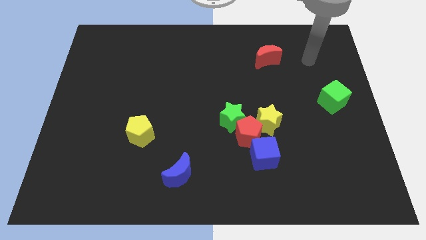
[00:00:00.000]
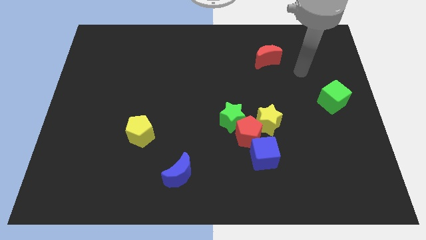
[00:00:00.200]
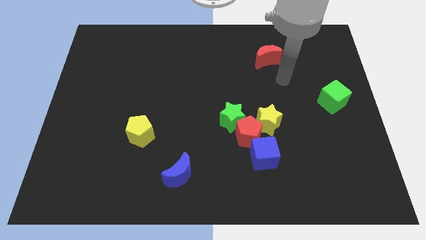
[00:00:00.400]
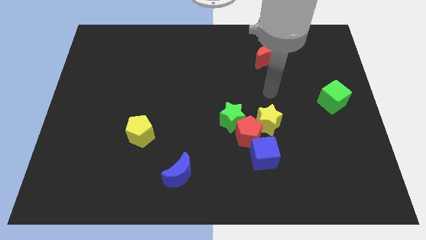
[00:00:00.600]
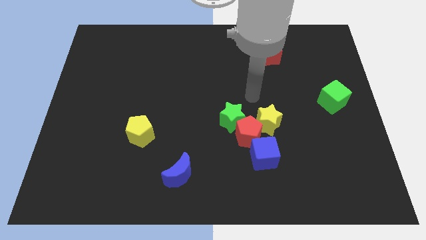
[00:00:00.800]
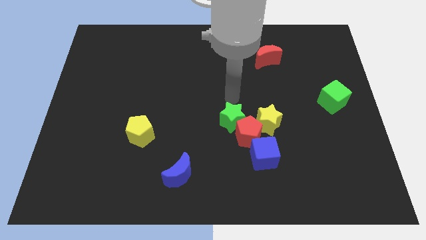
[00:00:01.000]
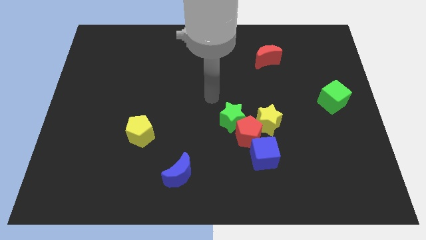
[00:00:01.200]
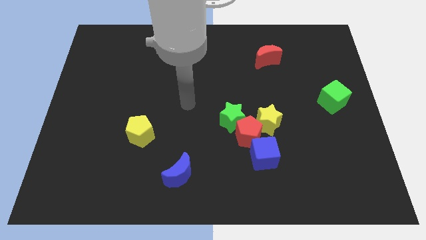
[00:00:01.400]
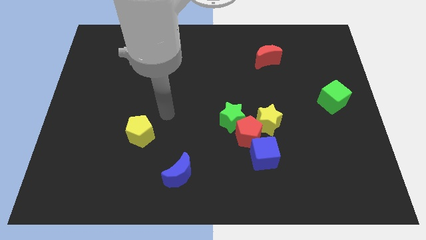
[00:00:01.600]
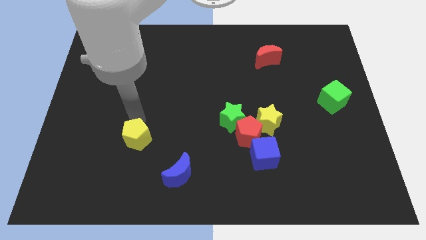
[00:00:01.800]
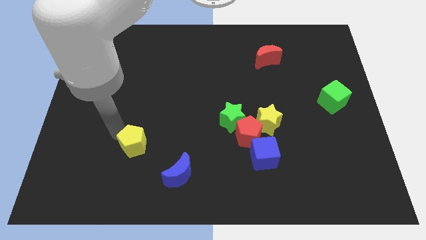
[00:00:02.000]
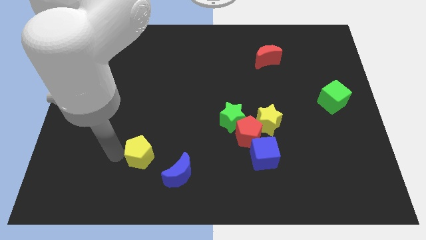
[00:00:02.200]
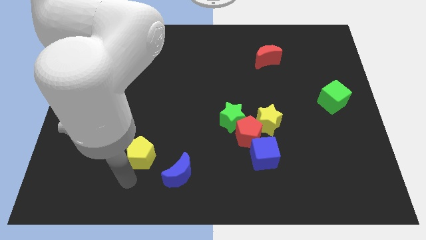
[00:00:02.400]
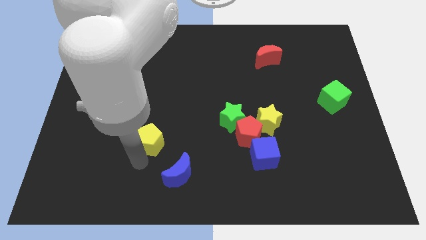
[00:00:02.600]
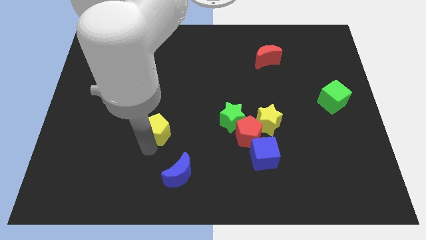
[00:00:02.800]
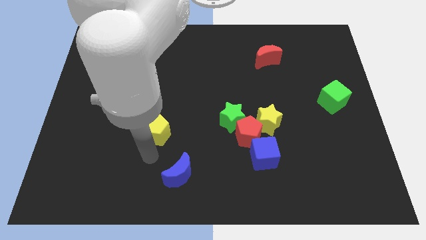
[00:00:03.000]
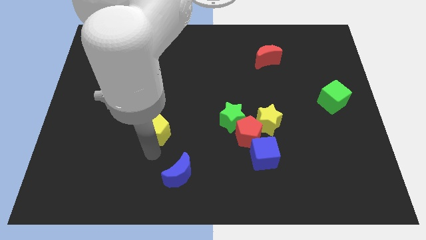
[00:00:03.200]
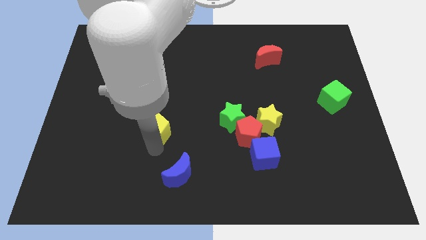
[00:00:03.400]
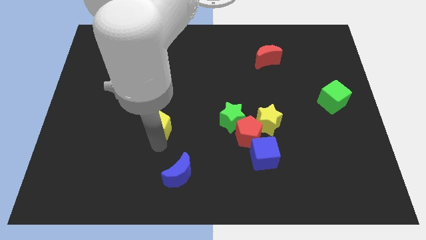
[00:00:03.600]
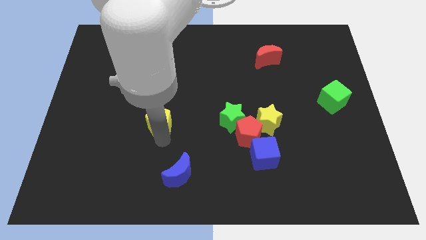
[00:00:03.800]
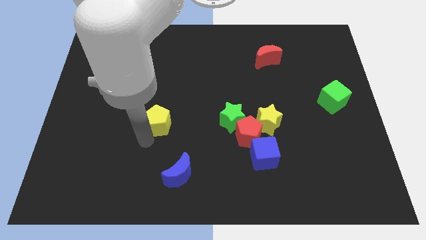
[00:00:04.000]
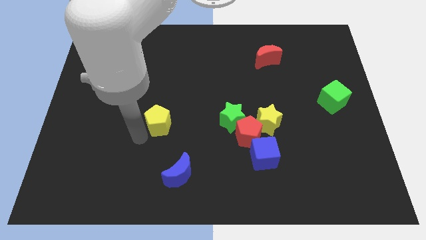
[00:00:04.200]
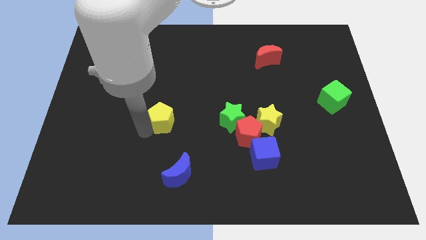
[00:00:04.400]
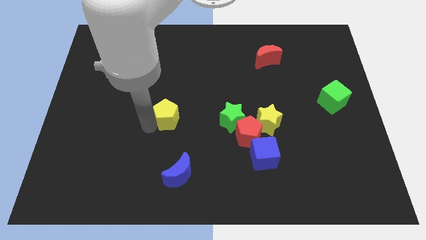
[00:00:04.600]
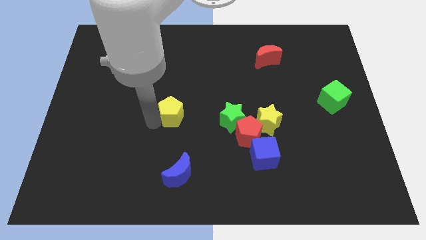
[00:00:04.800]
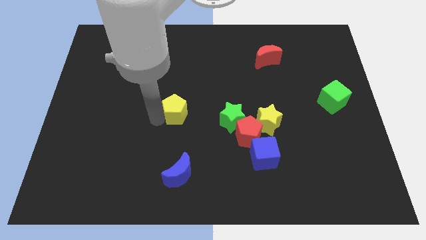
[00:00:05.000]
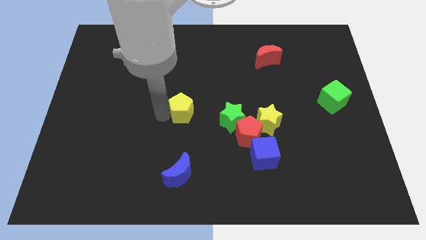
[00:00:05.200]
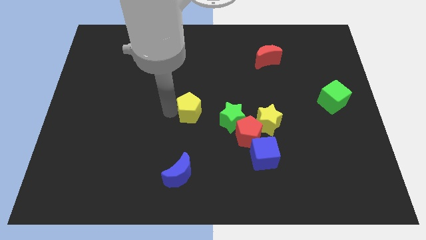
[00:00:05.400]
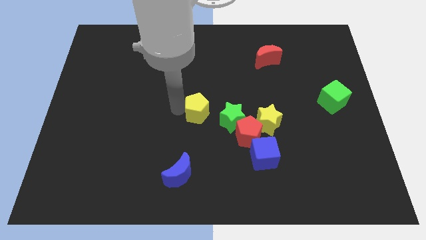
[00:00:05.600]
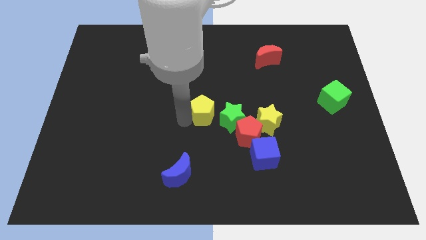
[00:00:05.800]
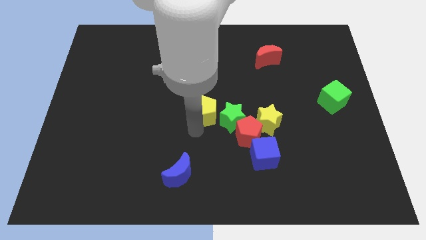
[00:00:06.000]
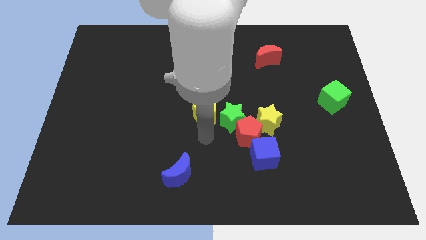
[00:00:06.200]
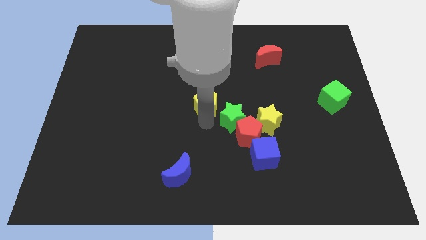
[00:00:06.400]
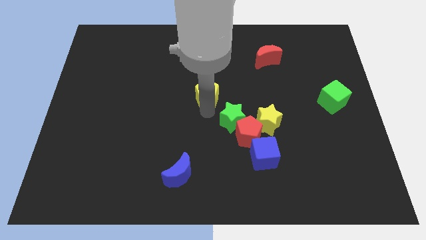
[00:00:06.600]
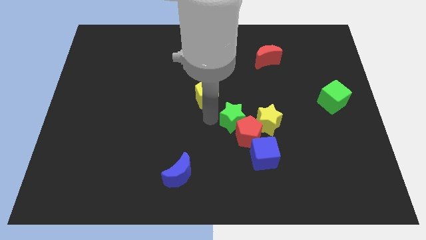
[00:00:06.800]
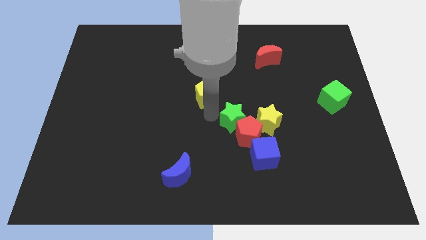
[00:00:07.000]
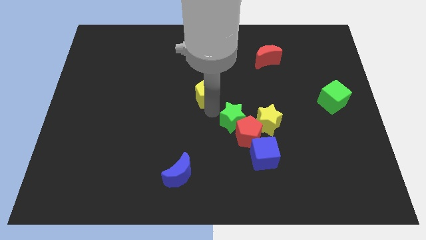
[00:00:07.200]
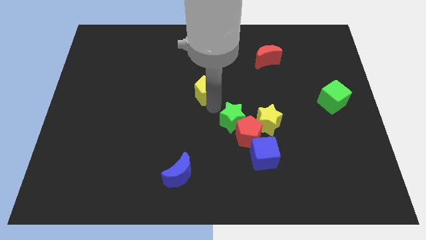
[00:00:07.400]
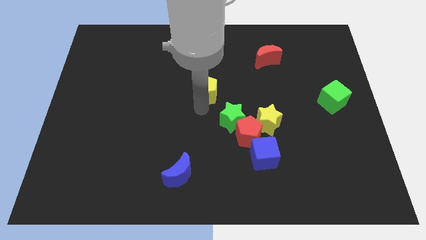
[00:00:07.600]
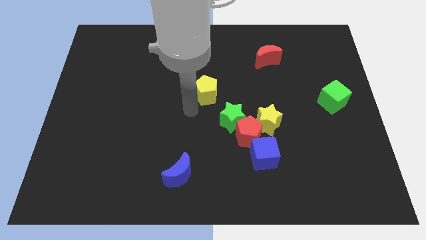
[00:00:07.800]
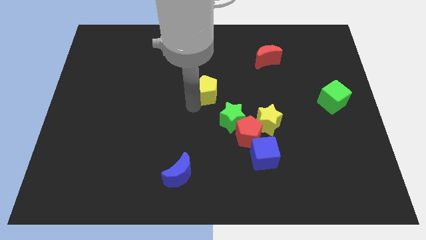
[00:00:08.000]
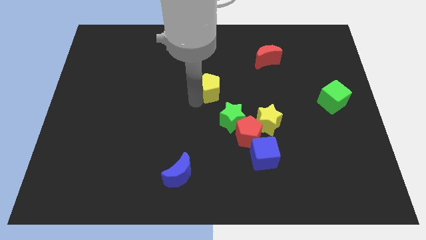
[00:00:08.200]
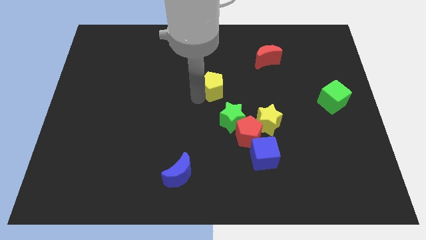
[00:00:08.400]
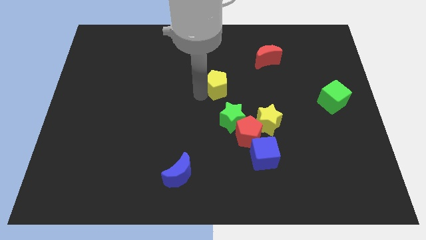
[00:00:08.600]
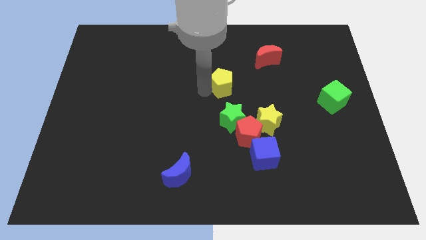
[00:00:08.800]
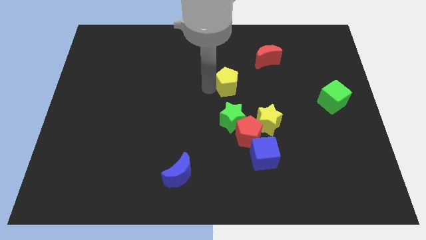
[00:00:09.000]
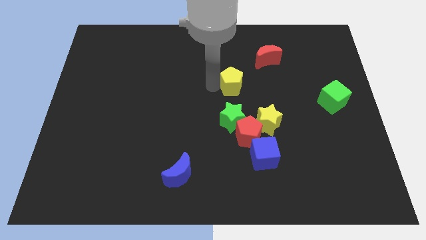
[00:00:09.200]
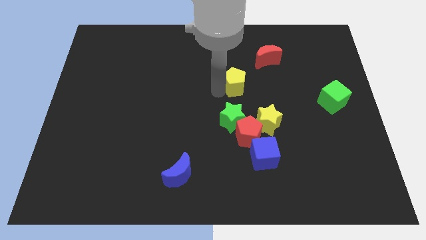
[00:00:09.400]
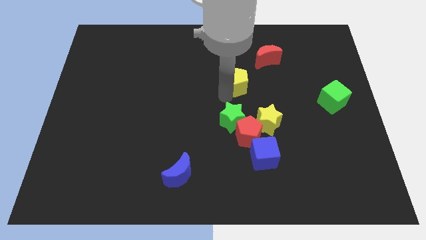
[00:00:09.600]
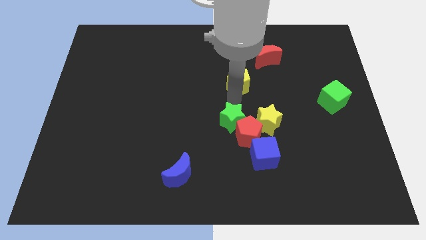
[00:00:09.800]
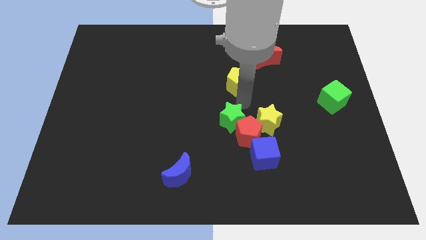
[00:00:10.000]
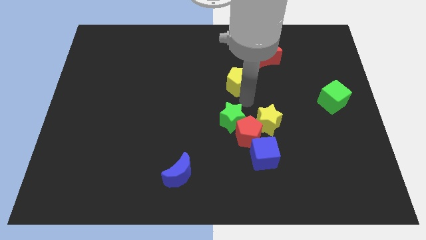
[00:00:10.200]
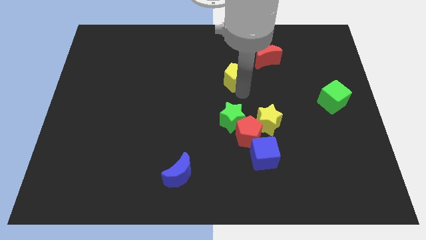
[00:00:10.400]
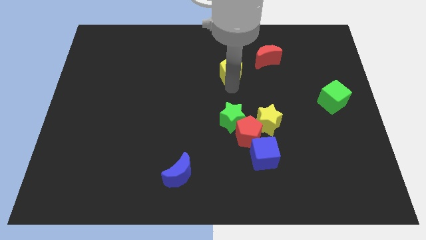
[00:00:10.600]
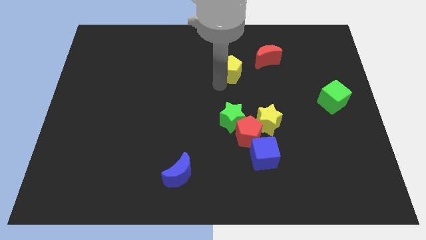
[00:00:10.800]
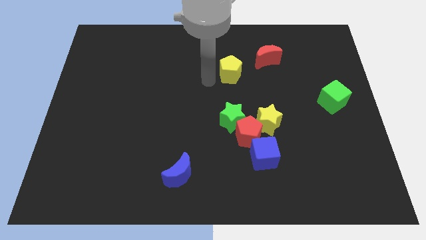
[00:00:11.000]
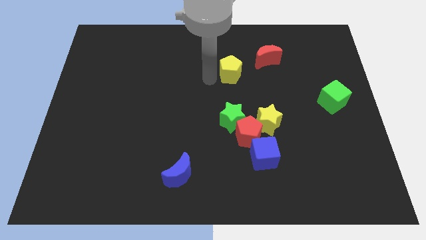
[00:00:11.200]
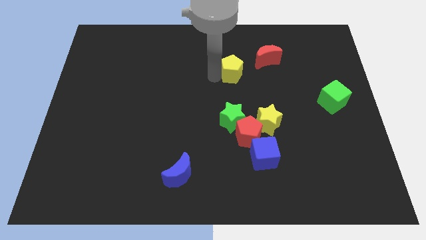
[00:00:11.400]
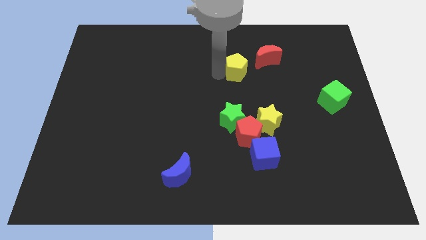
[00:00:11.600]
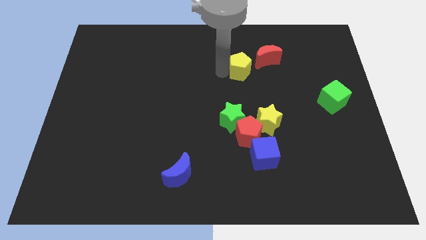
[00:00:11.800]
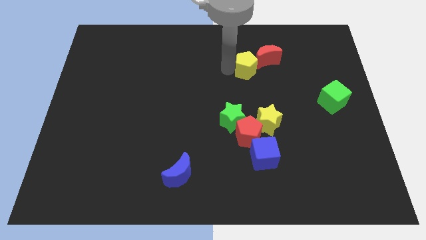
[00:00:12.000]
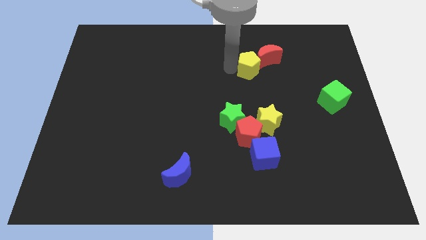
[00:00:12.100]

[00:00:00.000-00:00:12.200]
move the yellow pentagon towards the red moon
